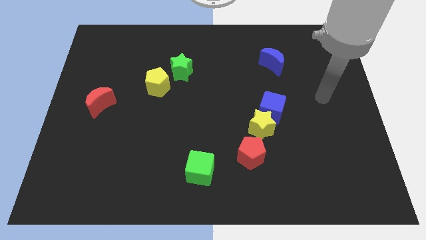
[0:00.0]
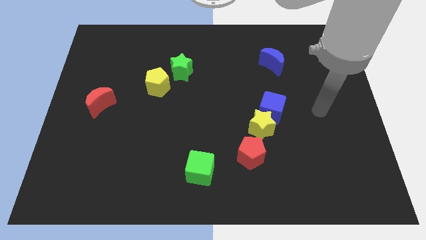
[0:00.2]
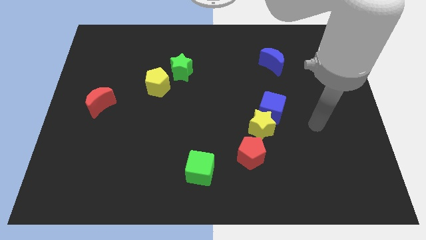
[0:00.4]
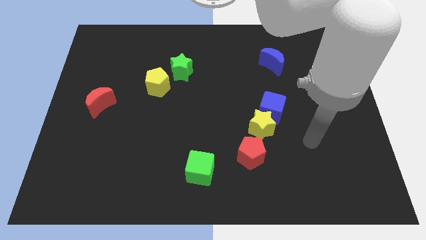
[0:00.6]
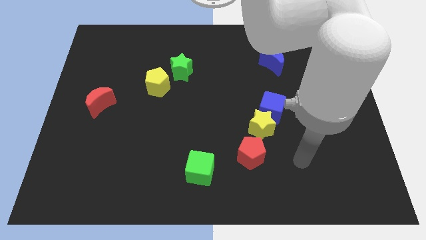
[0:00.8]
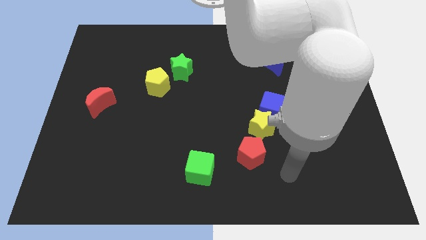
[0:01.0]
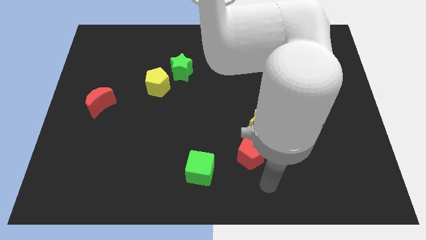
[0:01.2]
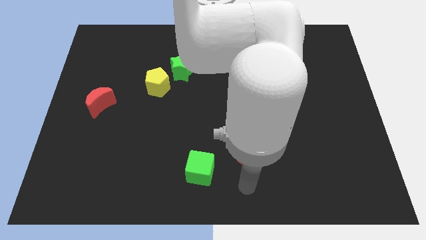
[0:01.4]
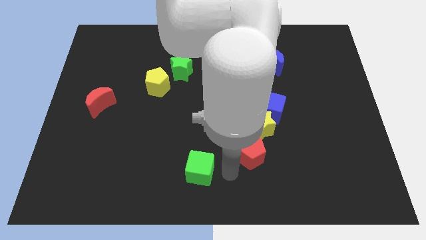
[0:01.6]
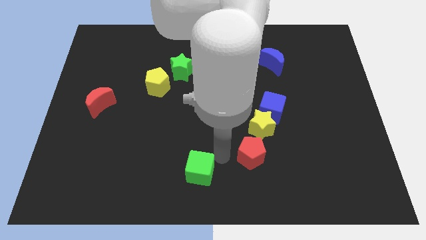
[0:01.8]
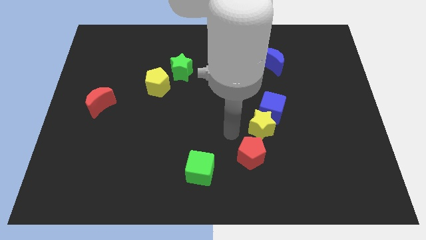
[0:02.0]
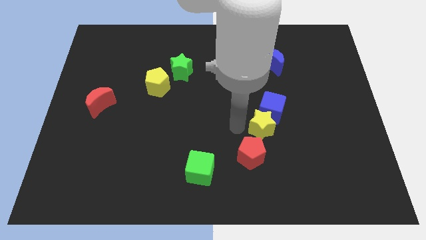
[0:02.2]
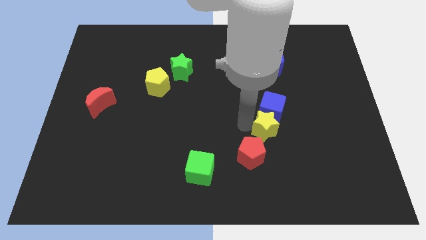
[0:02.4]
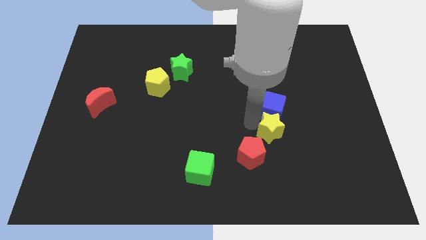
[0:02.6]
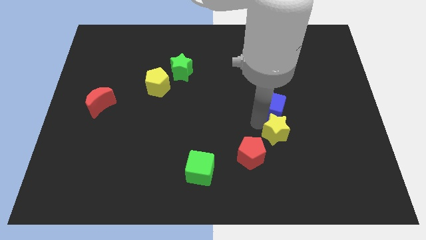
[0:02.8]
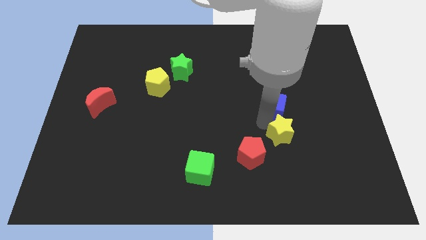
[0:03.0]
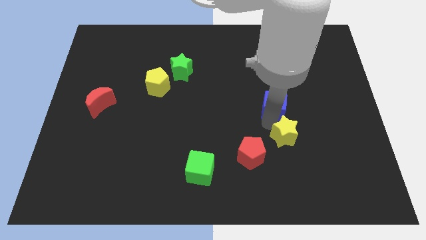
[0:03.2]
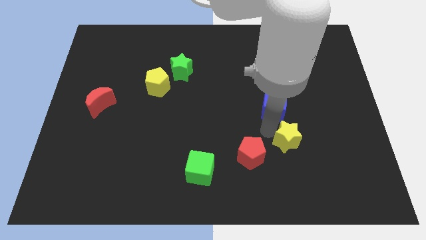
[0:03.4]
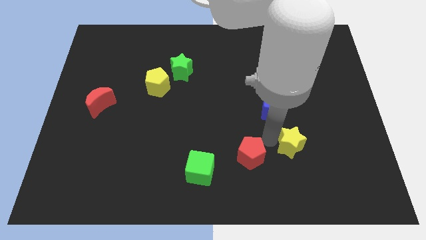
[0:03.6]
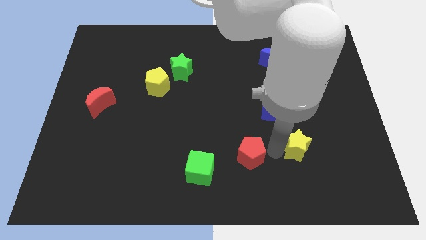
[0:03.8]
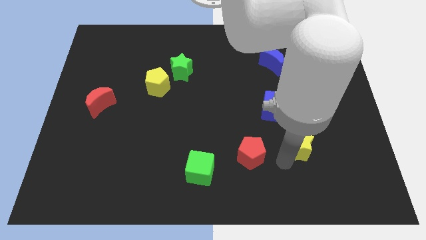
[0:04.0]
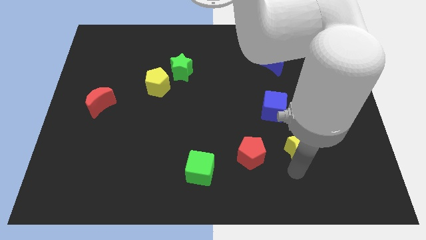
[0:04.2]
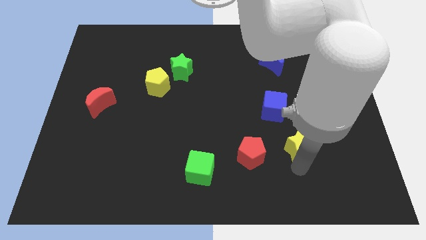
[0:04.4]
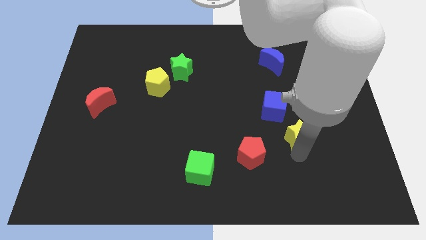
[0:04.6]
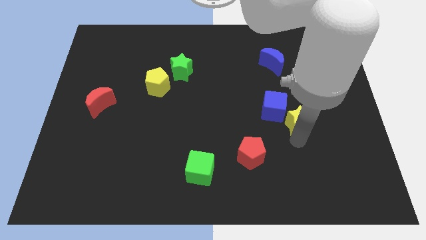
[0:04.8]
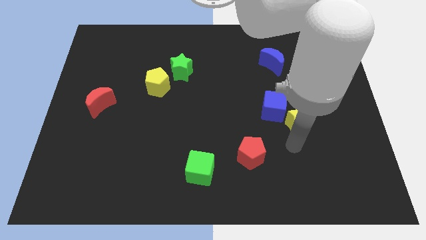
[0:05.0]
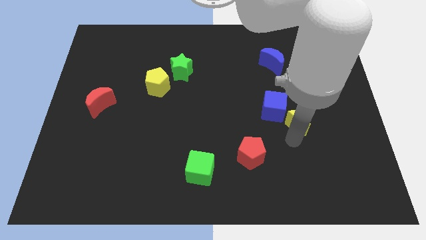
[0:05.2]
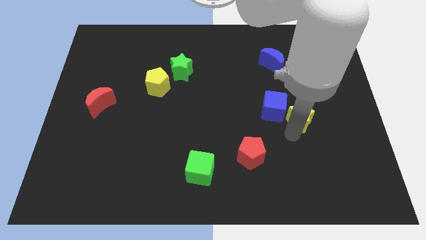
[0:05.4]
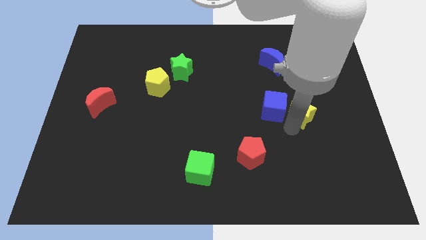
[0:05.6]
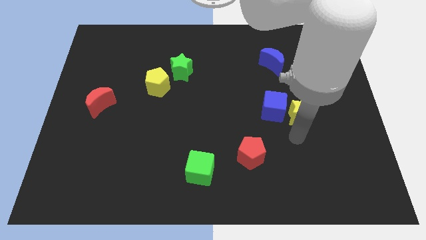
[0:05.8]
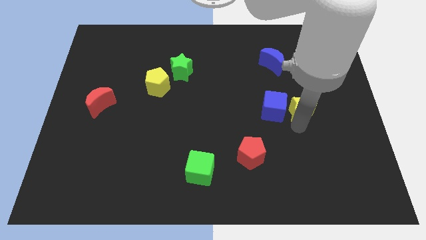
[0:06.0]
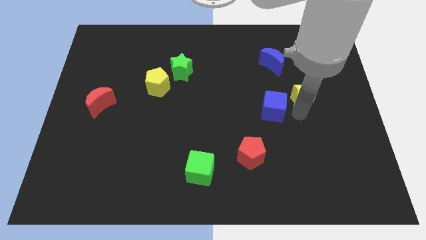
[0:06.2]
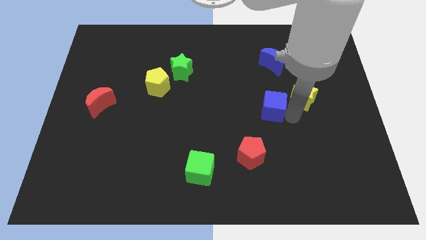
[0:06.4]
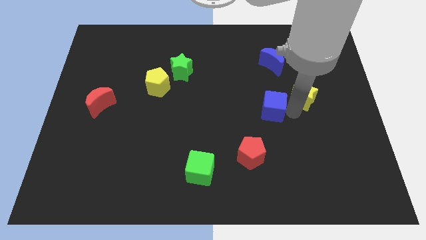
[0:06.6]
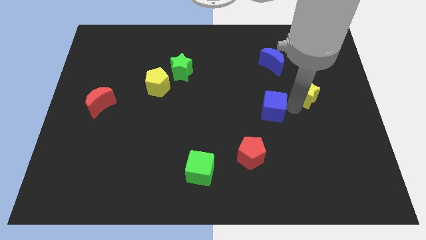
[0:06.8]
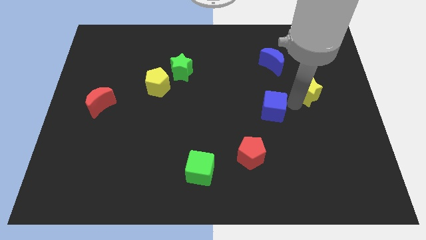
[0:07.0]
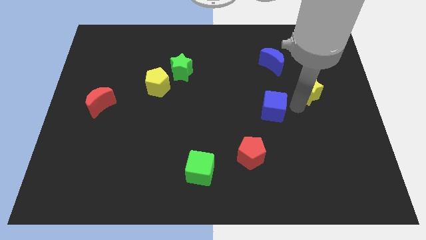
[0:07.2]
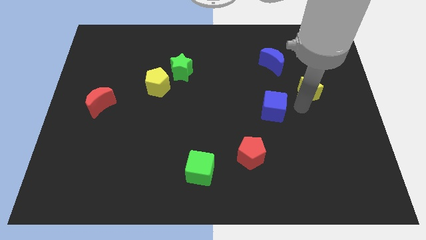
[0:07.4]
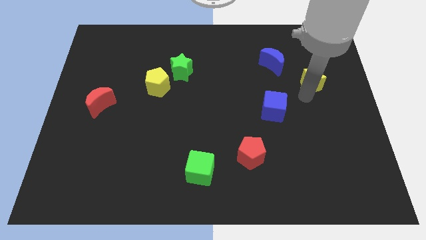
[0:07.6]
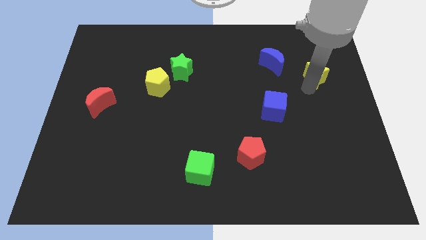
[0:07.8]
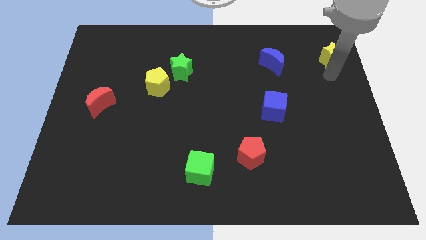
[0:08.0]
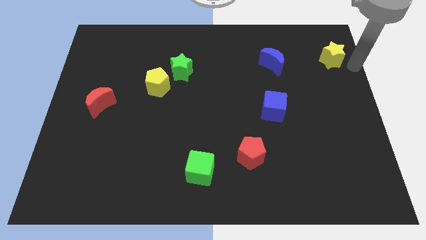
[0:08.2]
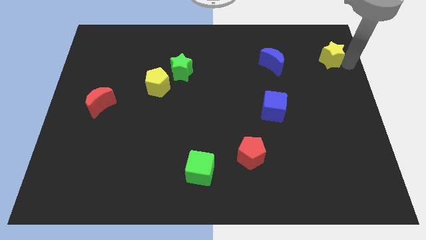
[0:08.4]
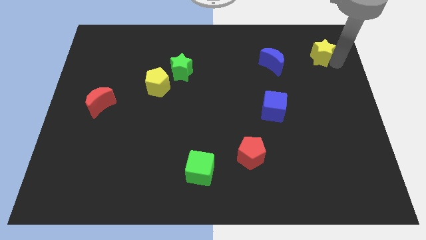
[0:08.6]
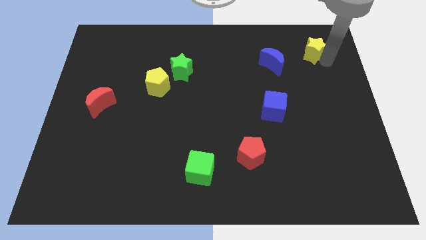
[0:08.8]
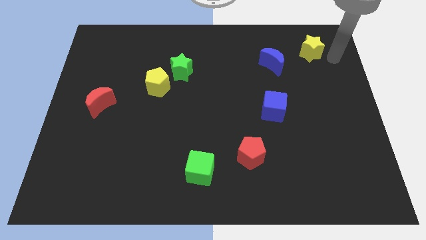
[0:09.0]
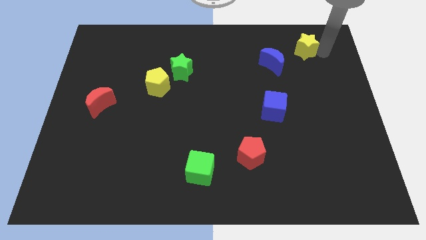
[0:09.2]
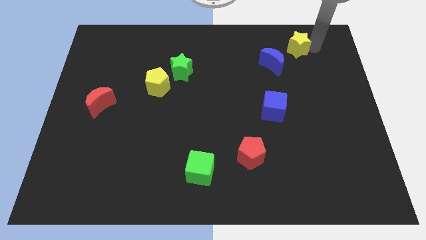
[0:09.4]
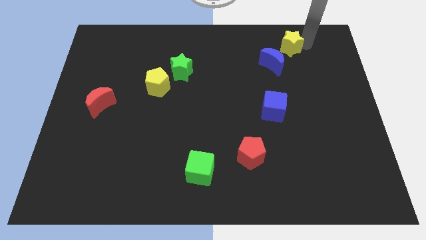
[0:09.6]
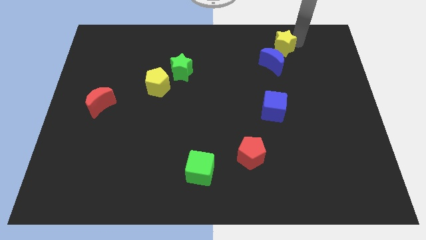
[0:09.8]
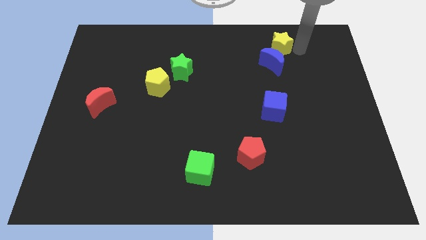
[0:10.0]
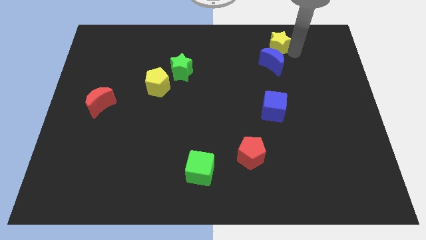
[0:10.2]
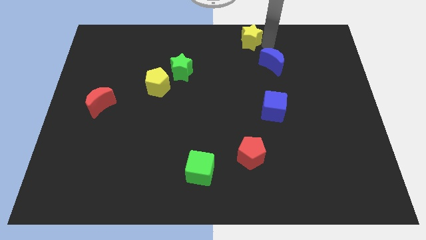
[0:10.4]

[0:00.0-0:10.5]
slide the yellow star to the top side

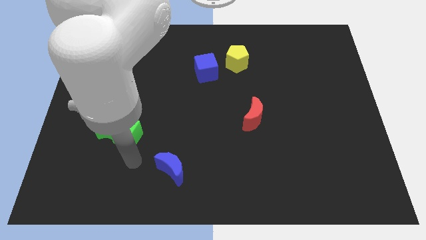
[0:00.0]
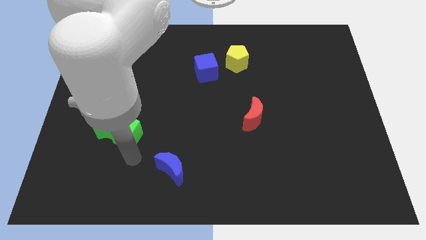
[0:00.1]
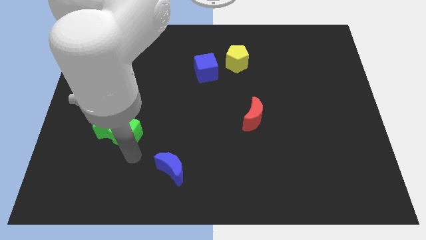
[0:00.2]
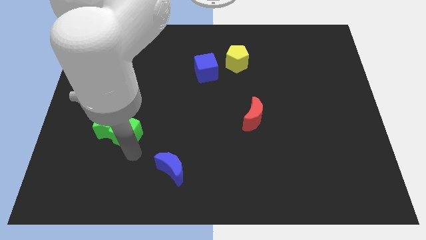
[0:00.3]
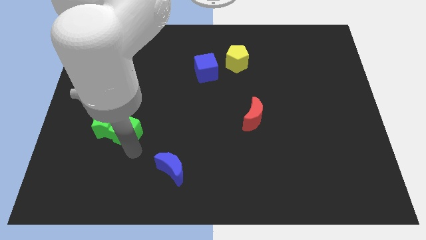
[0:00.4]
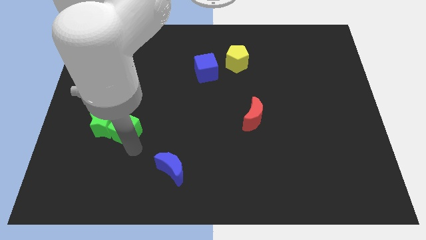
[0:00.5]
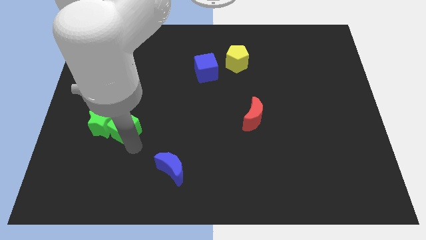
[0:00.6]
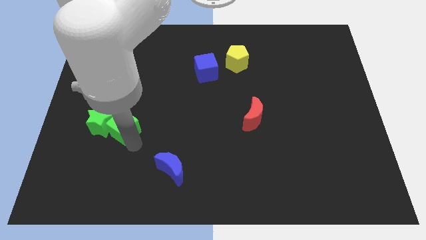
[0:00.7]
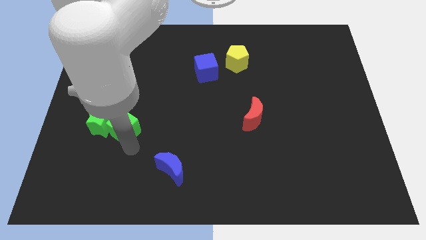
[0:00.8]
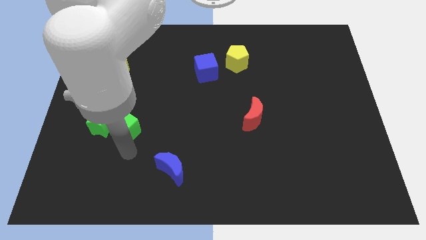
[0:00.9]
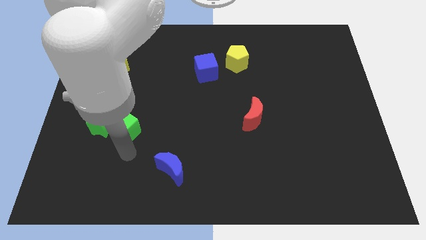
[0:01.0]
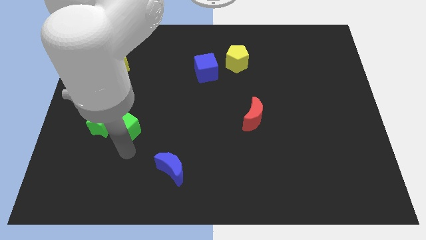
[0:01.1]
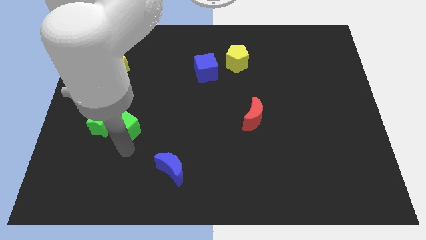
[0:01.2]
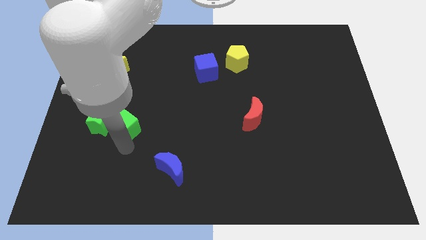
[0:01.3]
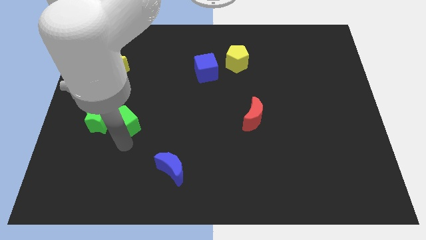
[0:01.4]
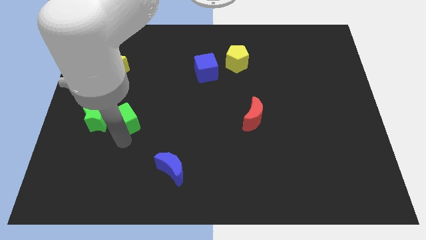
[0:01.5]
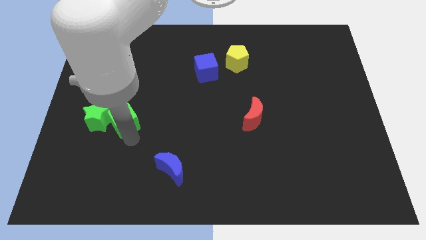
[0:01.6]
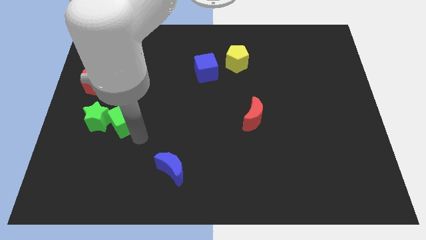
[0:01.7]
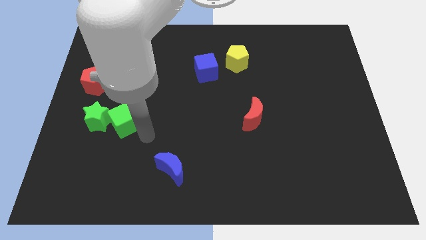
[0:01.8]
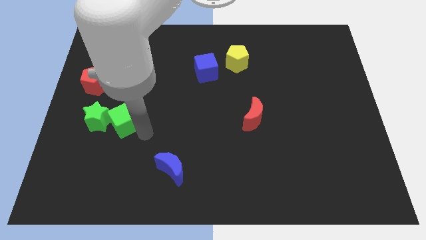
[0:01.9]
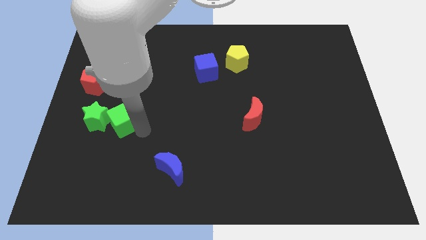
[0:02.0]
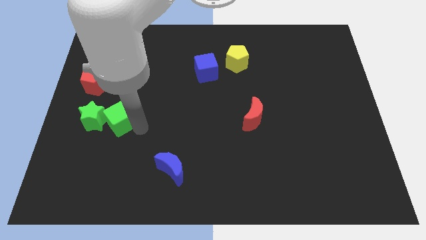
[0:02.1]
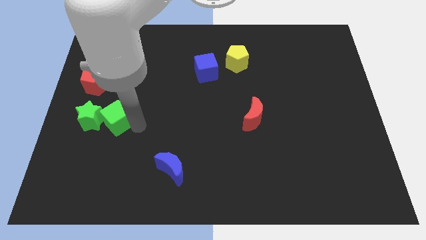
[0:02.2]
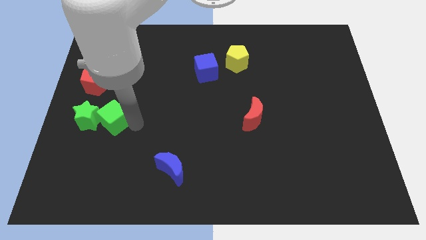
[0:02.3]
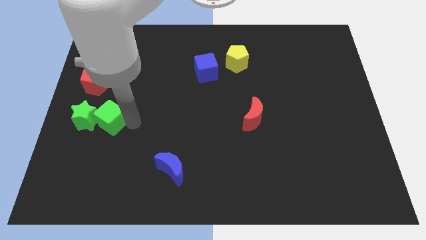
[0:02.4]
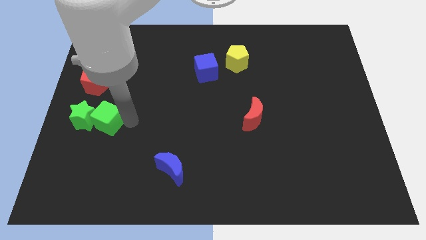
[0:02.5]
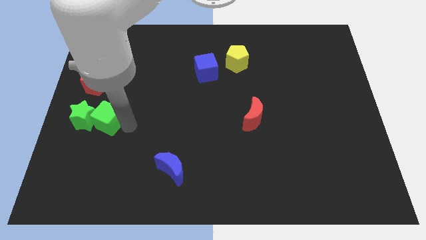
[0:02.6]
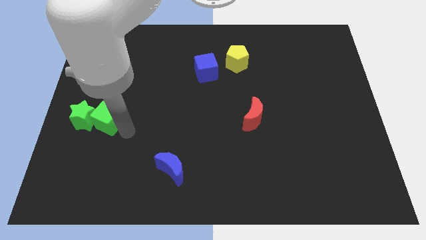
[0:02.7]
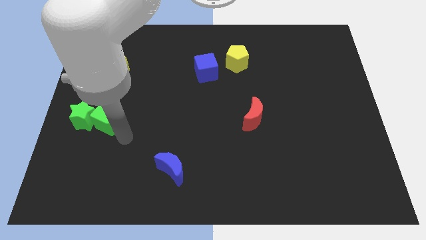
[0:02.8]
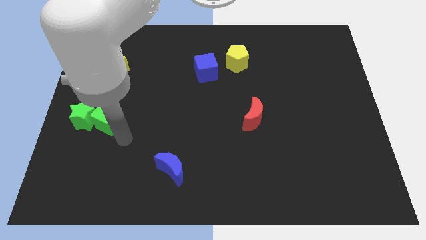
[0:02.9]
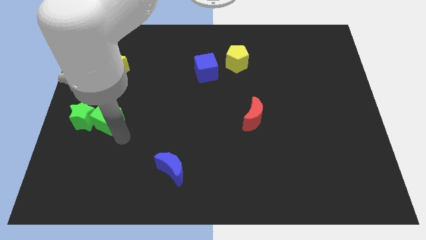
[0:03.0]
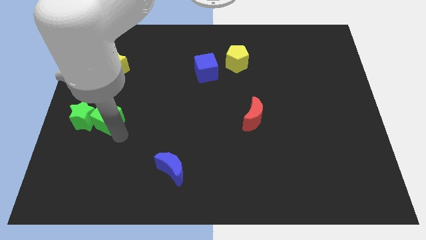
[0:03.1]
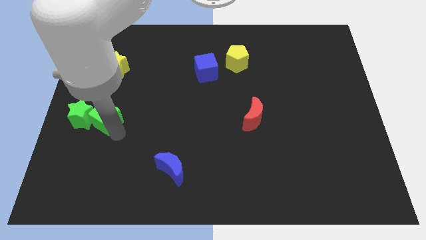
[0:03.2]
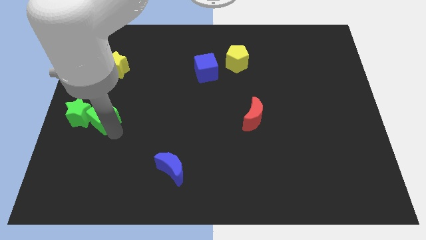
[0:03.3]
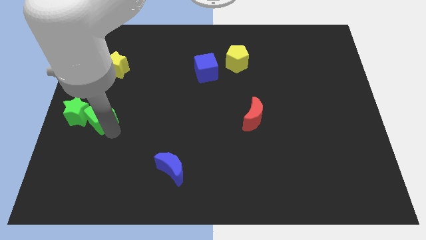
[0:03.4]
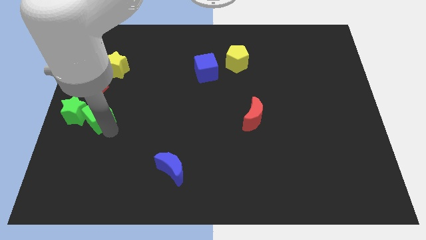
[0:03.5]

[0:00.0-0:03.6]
slide the green cube to the center left
